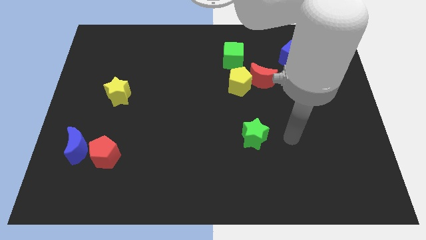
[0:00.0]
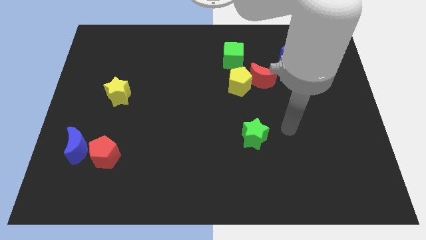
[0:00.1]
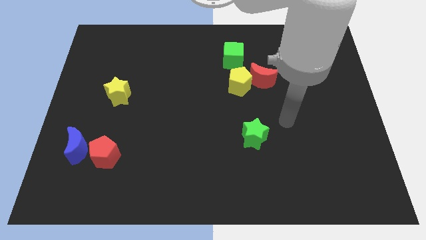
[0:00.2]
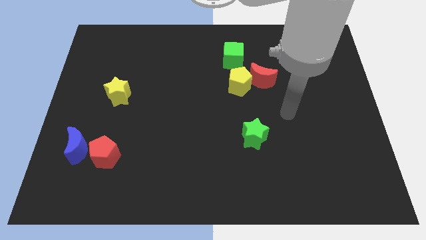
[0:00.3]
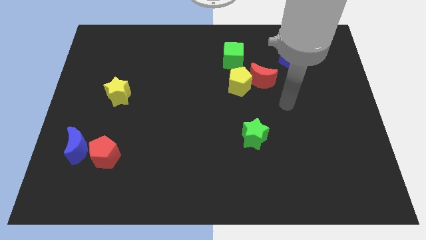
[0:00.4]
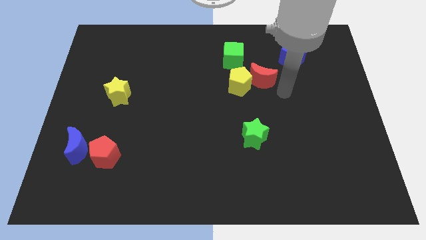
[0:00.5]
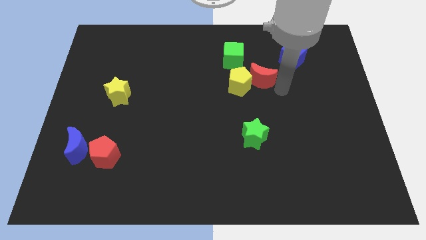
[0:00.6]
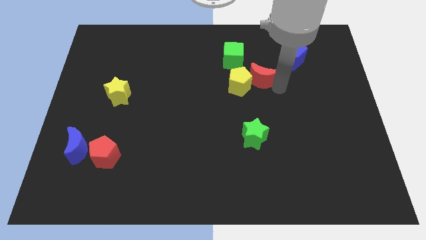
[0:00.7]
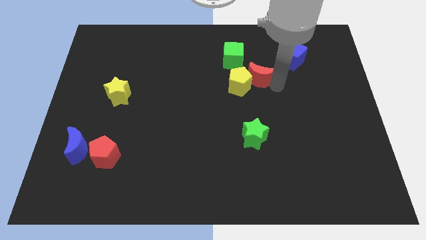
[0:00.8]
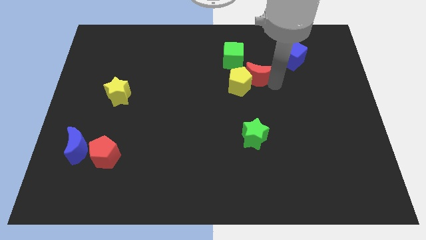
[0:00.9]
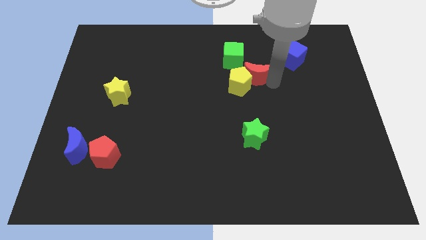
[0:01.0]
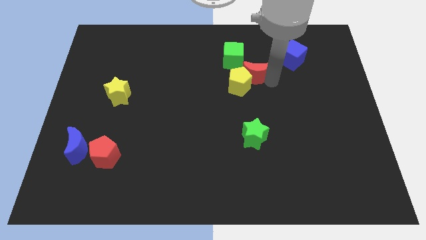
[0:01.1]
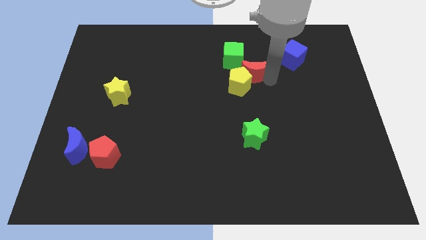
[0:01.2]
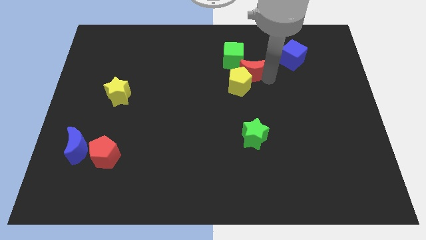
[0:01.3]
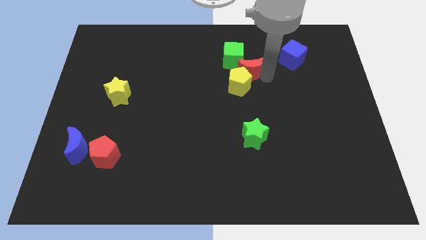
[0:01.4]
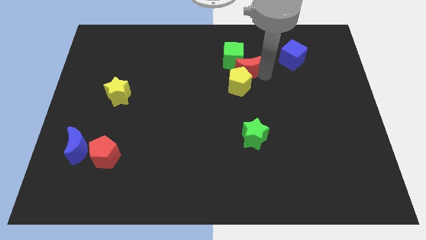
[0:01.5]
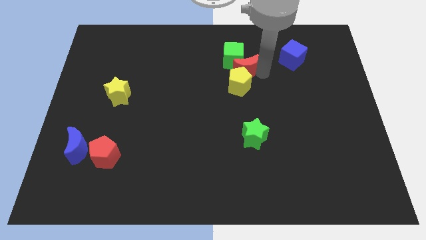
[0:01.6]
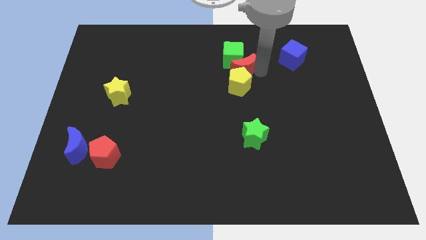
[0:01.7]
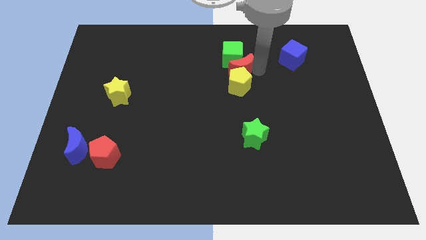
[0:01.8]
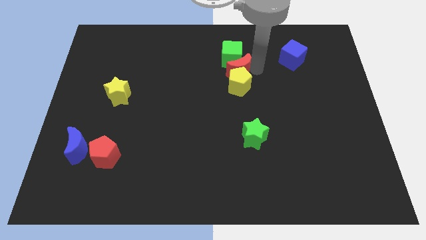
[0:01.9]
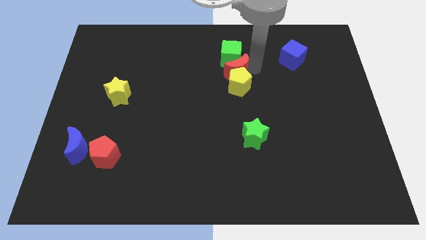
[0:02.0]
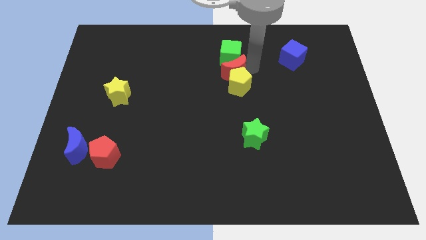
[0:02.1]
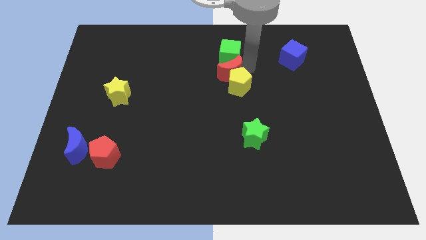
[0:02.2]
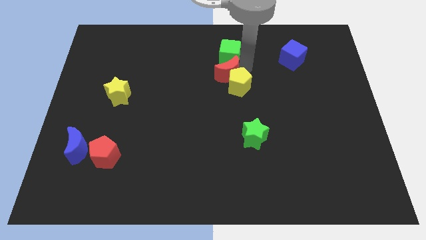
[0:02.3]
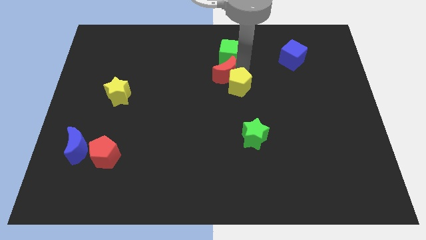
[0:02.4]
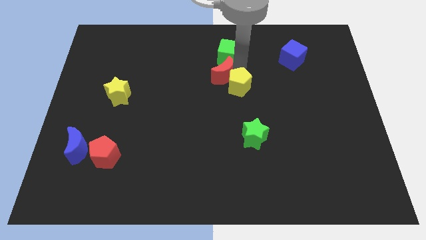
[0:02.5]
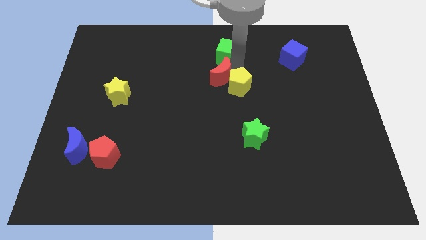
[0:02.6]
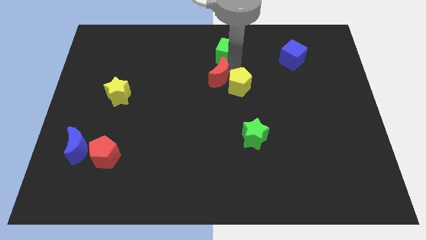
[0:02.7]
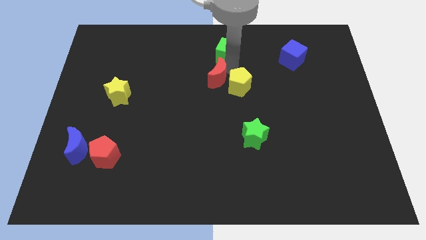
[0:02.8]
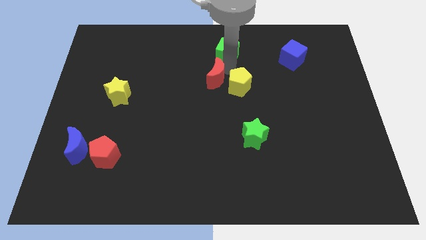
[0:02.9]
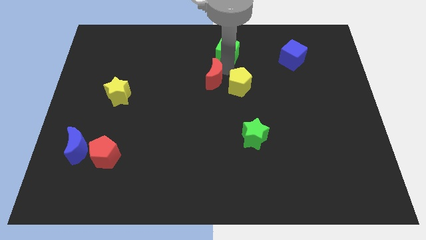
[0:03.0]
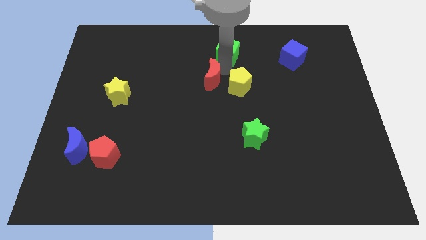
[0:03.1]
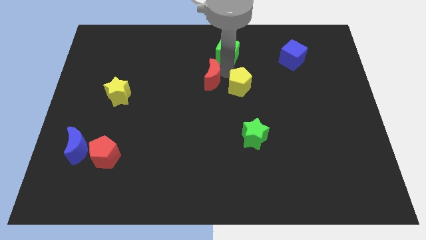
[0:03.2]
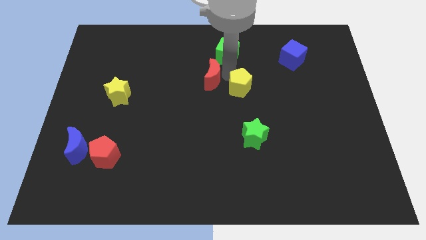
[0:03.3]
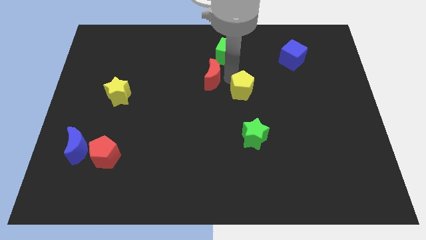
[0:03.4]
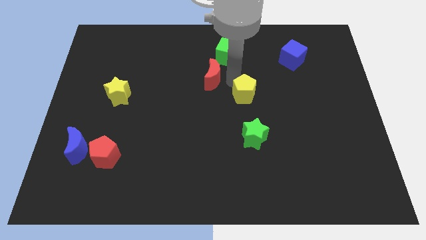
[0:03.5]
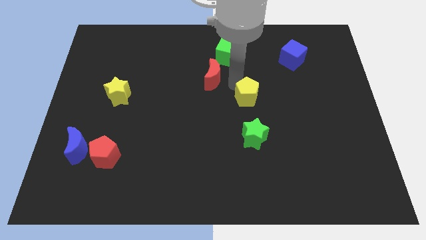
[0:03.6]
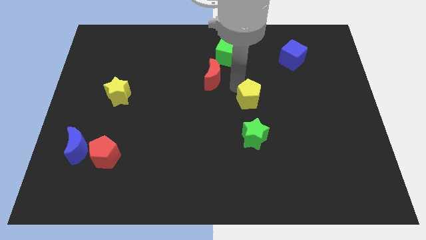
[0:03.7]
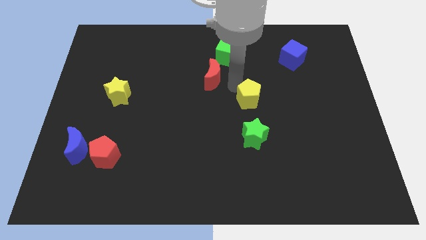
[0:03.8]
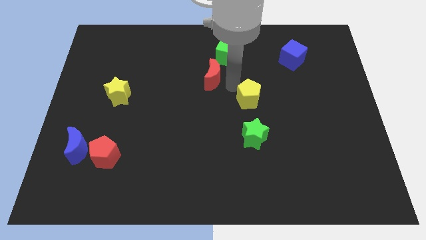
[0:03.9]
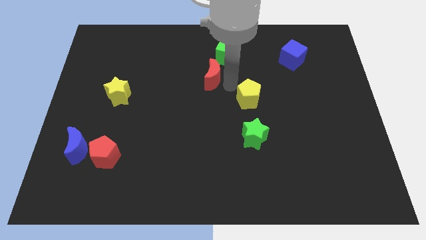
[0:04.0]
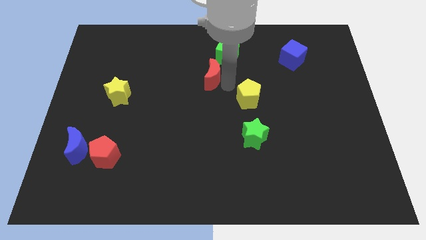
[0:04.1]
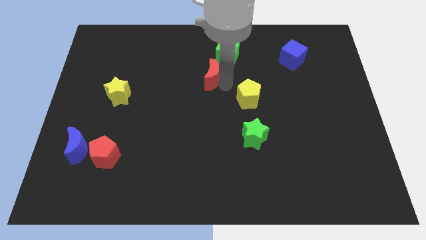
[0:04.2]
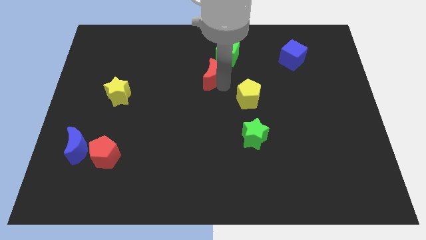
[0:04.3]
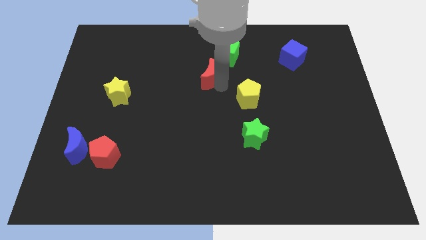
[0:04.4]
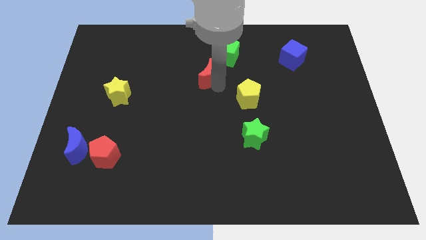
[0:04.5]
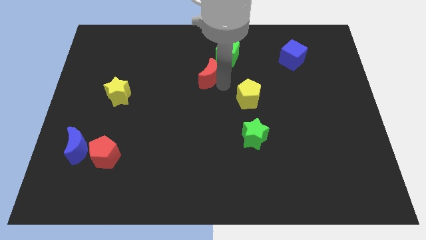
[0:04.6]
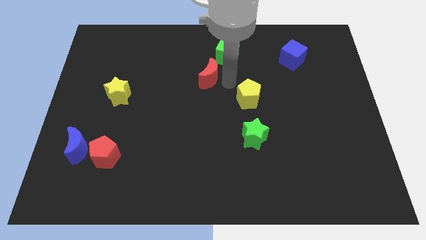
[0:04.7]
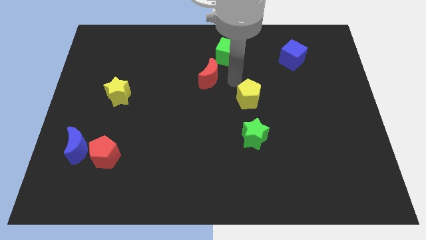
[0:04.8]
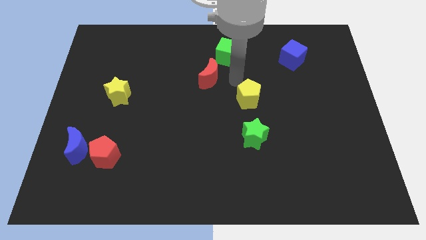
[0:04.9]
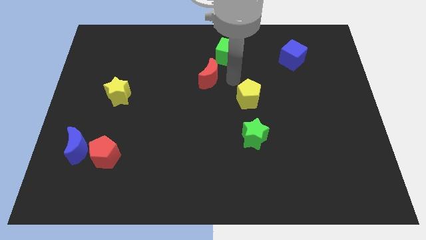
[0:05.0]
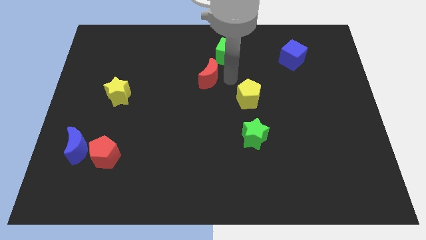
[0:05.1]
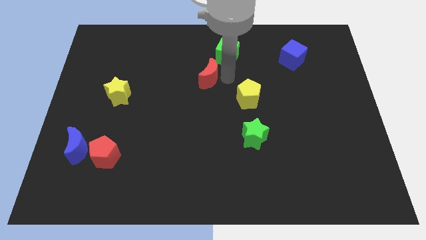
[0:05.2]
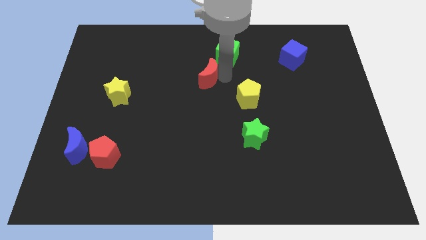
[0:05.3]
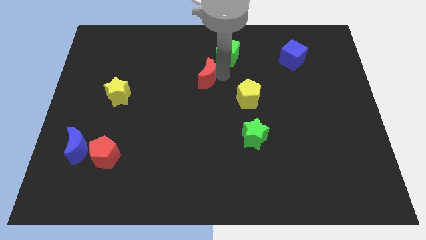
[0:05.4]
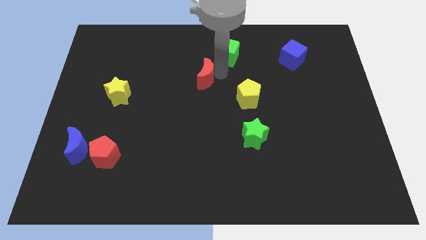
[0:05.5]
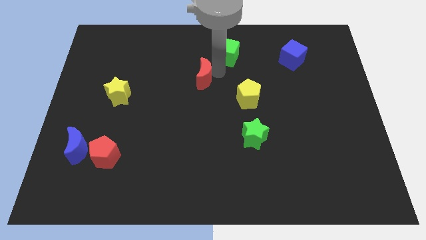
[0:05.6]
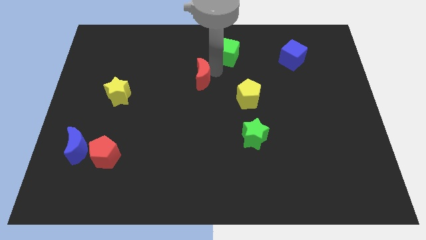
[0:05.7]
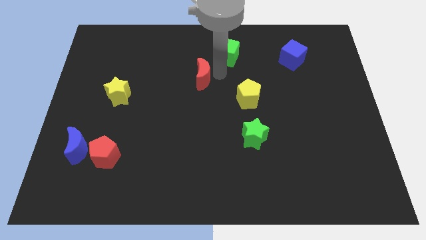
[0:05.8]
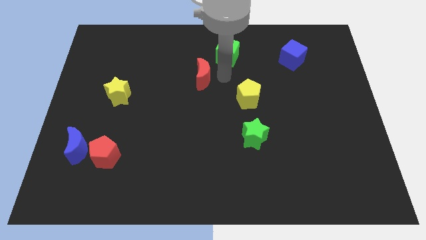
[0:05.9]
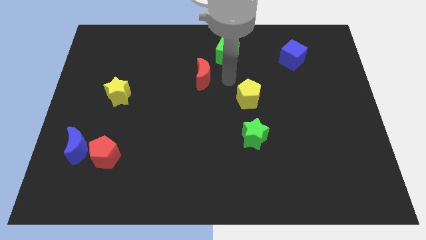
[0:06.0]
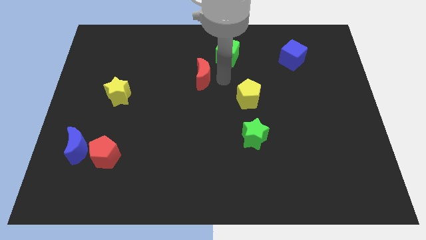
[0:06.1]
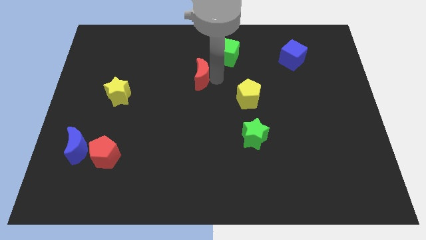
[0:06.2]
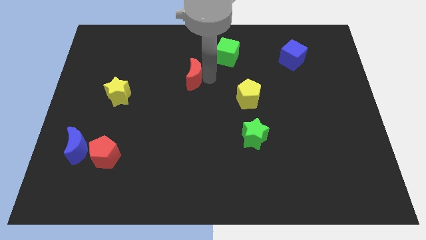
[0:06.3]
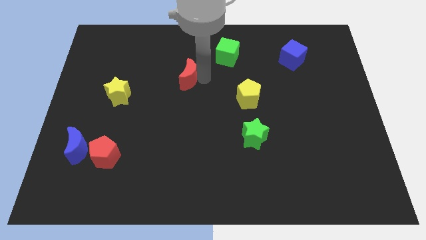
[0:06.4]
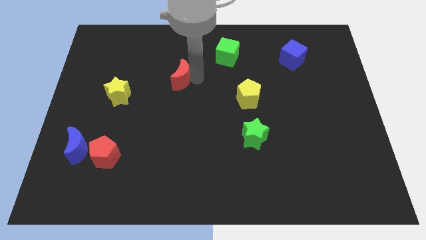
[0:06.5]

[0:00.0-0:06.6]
push the red moon to the left

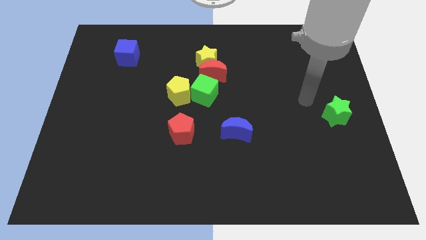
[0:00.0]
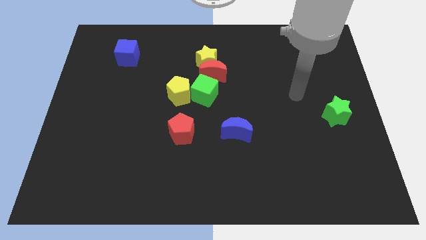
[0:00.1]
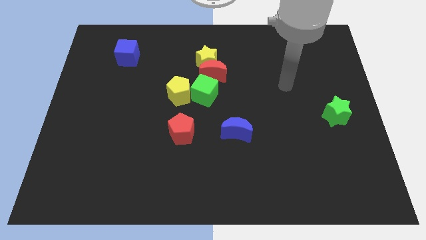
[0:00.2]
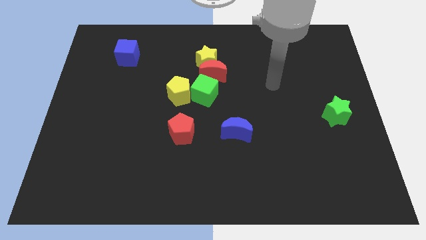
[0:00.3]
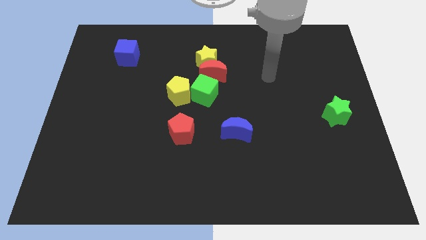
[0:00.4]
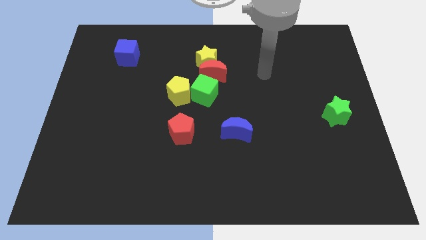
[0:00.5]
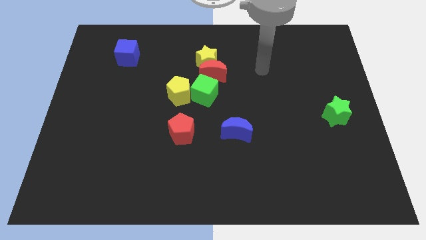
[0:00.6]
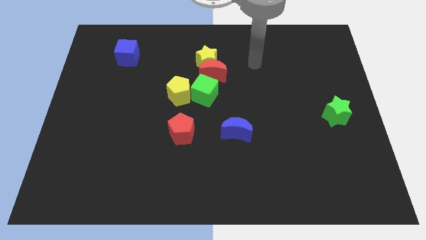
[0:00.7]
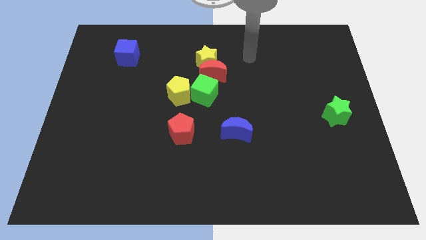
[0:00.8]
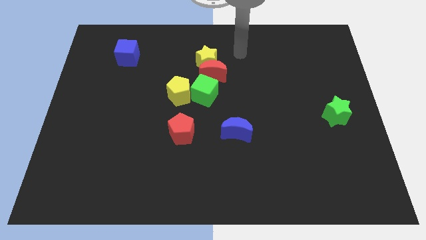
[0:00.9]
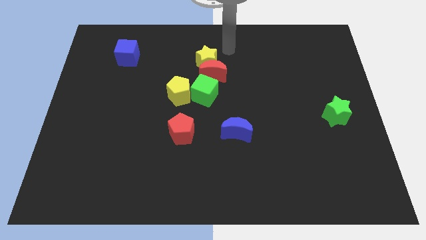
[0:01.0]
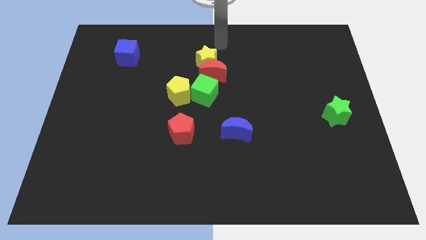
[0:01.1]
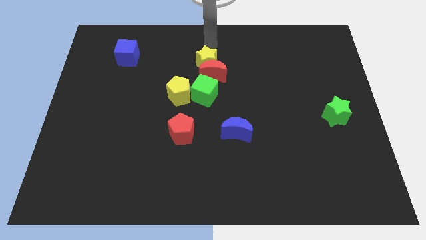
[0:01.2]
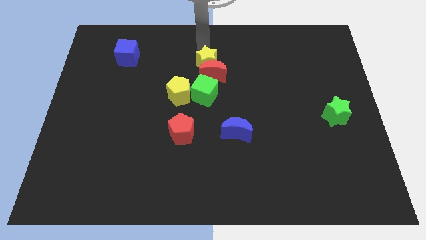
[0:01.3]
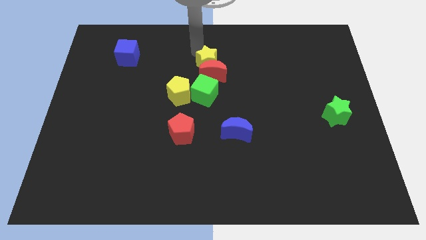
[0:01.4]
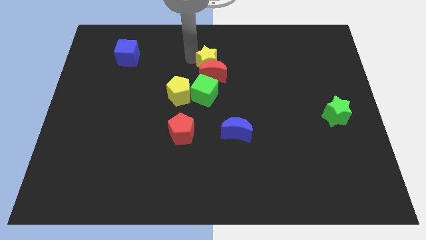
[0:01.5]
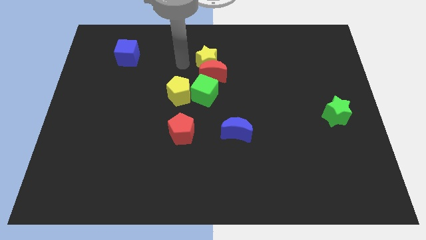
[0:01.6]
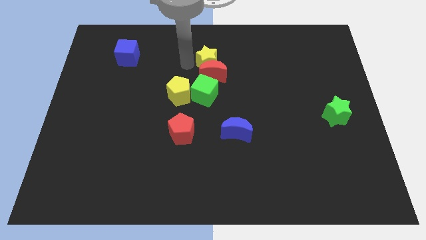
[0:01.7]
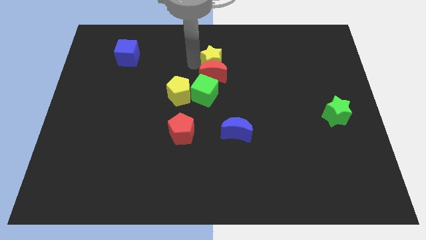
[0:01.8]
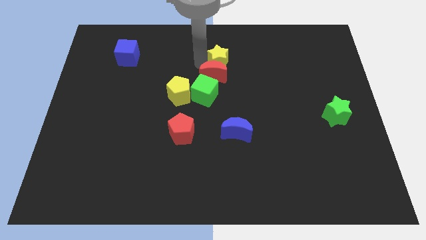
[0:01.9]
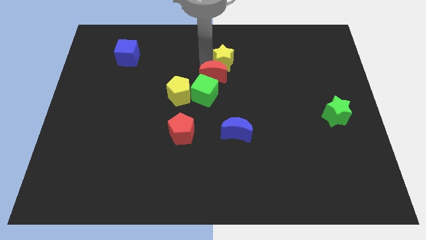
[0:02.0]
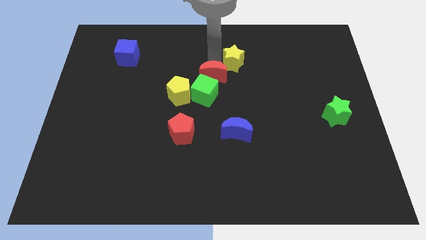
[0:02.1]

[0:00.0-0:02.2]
slide the yellow star to the right a bit
